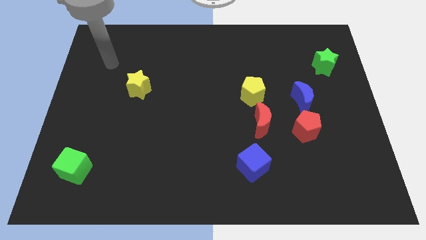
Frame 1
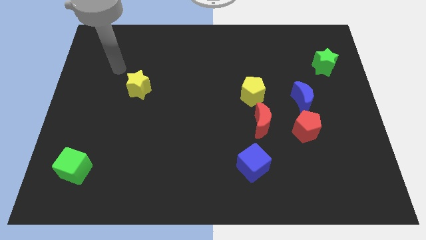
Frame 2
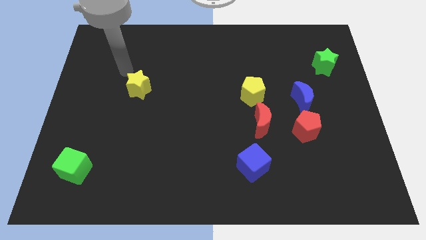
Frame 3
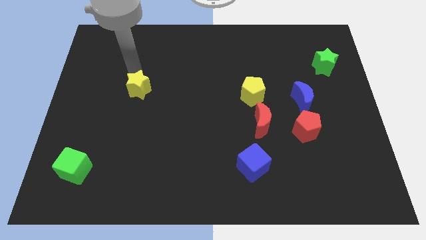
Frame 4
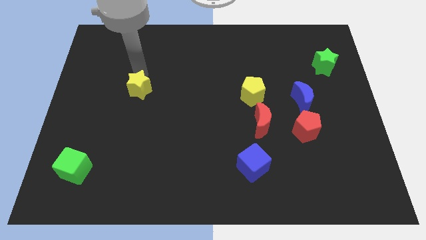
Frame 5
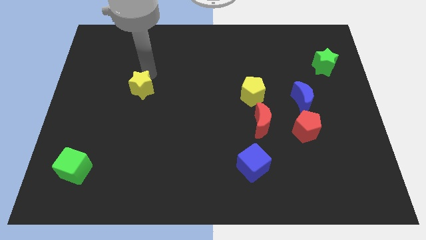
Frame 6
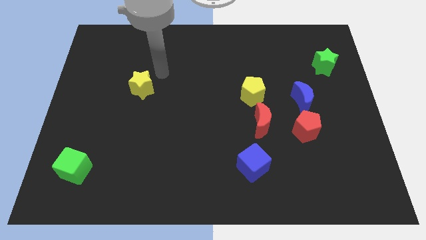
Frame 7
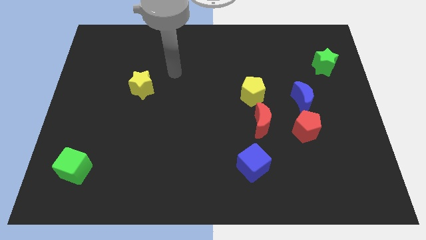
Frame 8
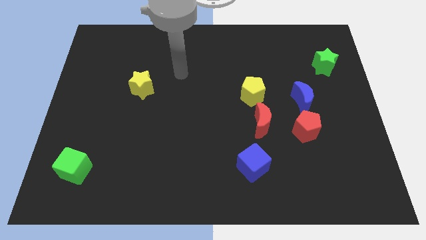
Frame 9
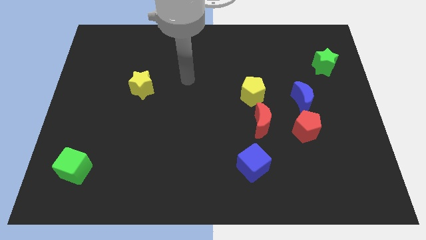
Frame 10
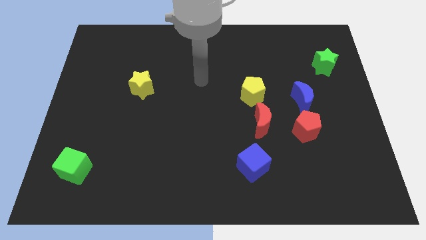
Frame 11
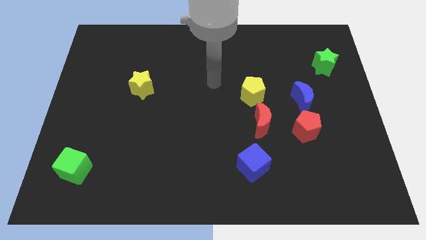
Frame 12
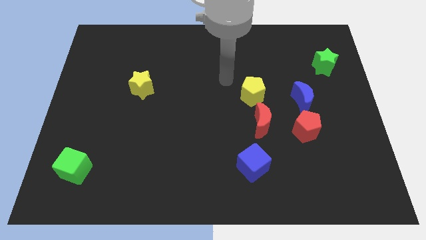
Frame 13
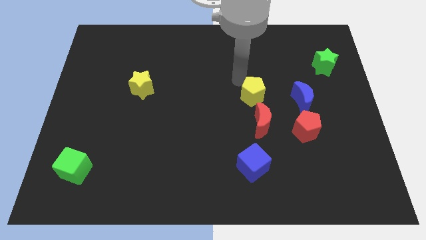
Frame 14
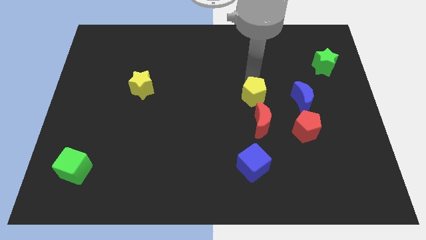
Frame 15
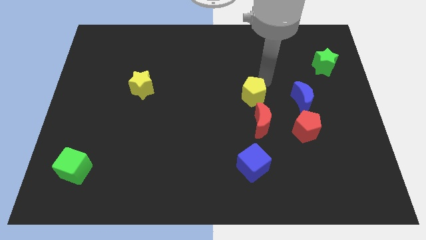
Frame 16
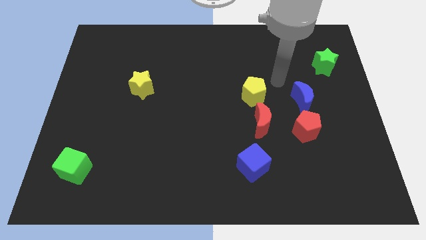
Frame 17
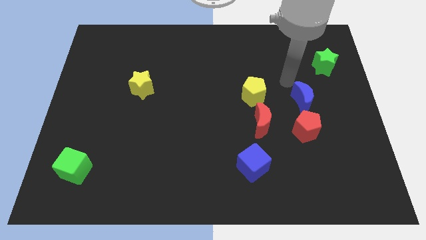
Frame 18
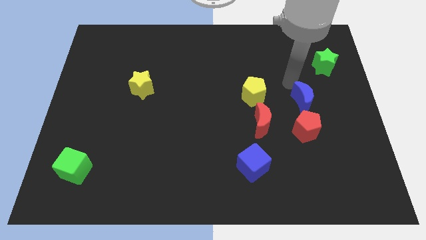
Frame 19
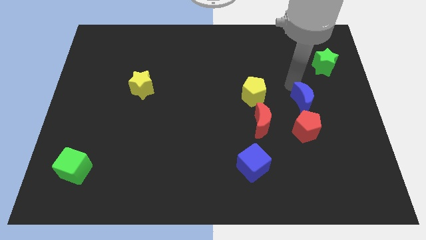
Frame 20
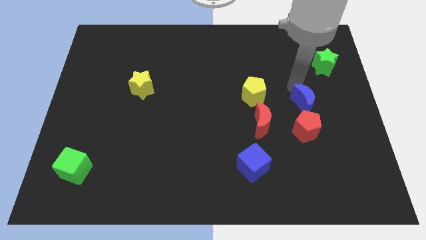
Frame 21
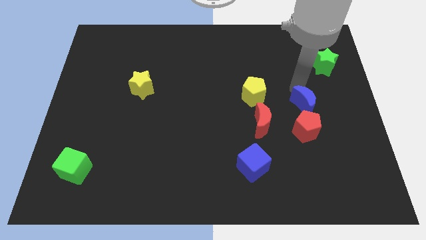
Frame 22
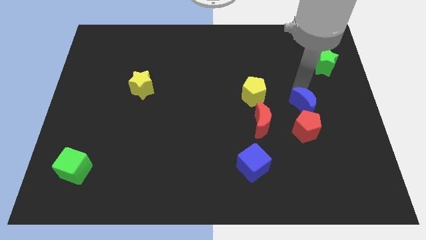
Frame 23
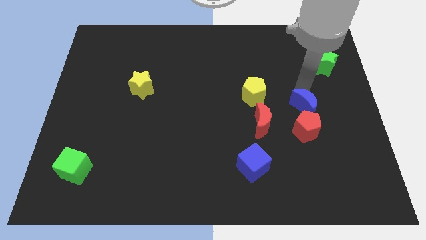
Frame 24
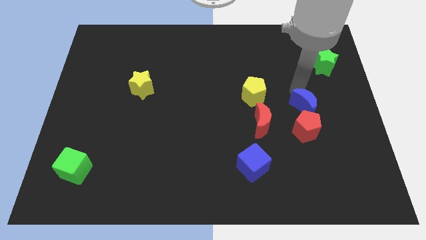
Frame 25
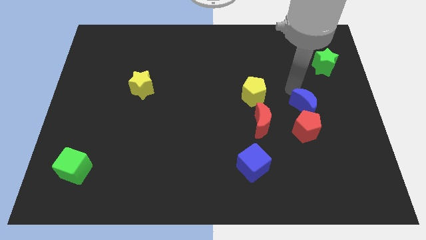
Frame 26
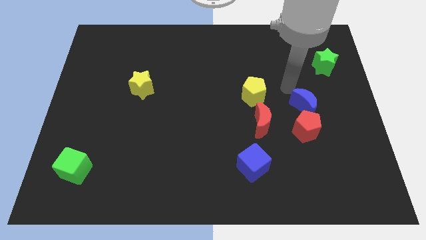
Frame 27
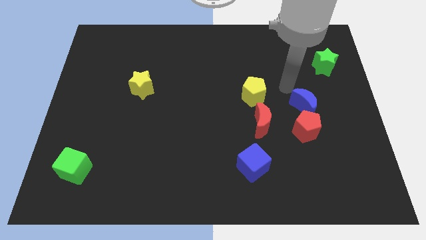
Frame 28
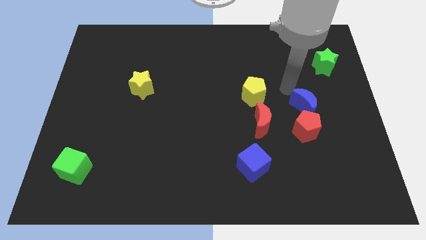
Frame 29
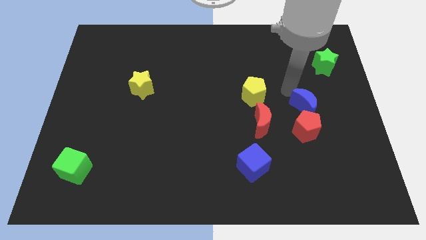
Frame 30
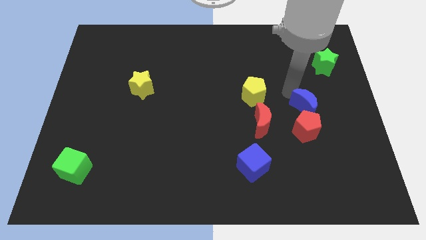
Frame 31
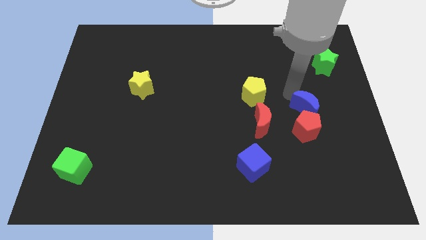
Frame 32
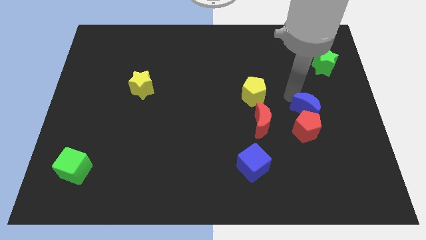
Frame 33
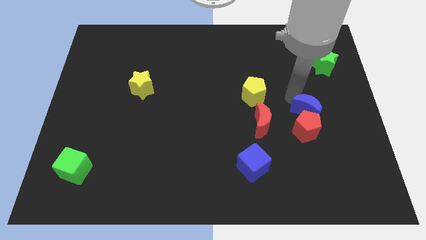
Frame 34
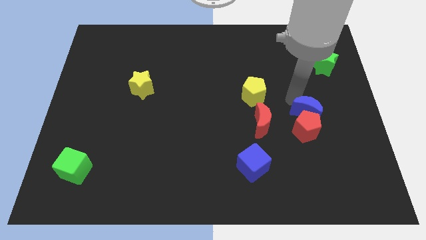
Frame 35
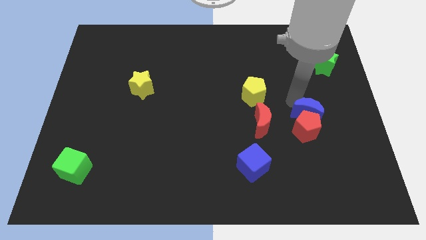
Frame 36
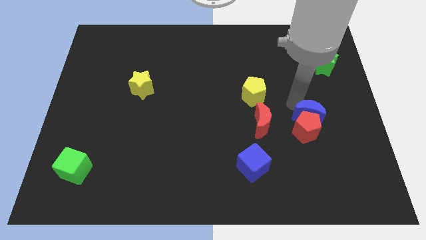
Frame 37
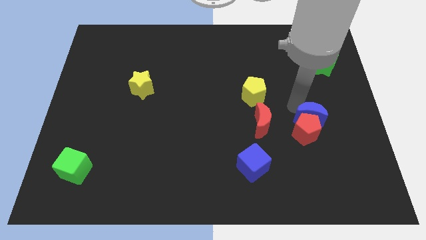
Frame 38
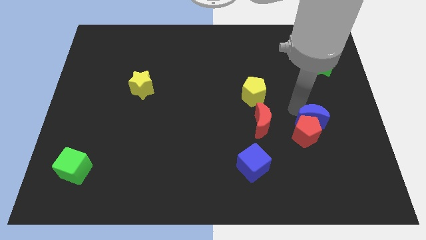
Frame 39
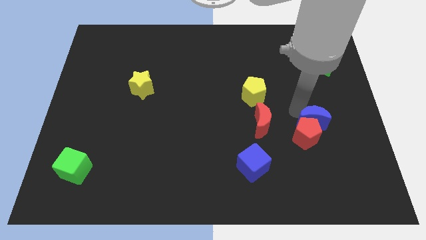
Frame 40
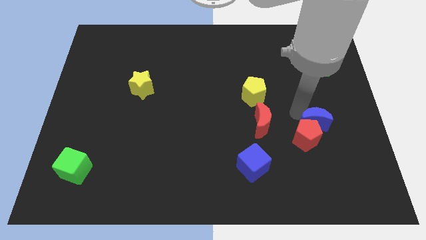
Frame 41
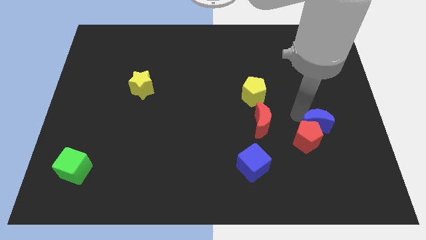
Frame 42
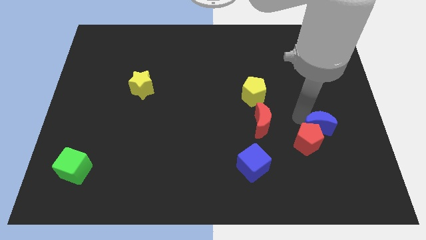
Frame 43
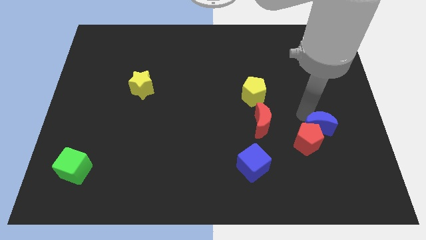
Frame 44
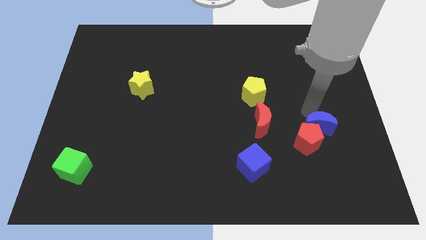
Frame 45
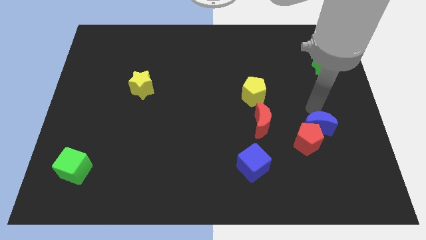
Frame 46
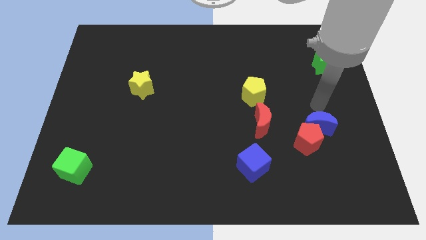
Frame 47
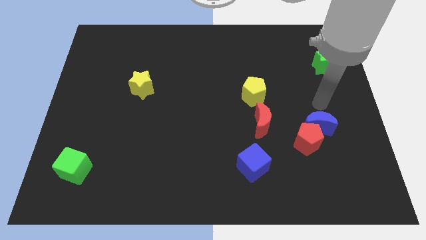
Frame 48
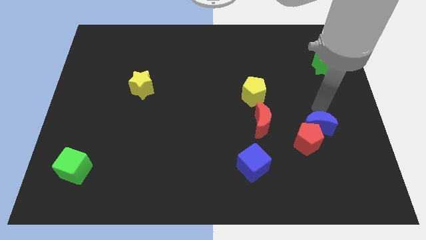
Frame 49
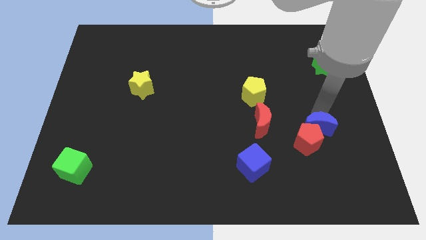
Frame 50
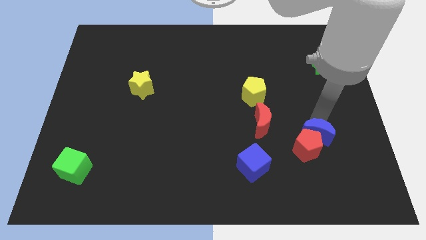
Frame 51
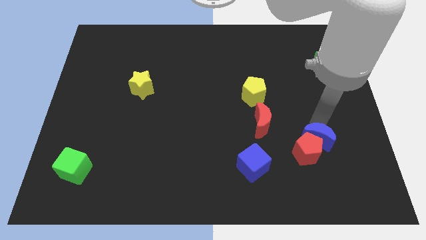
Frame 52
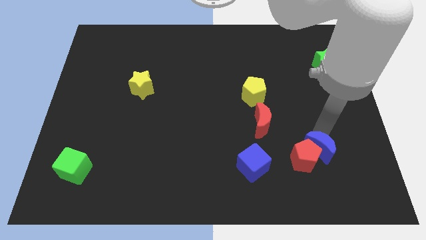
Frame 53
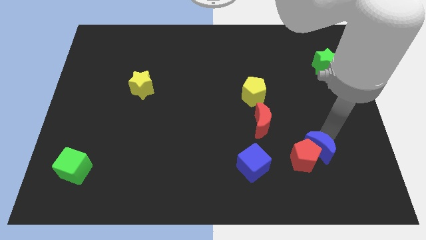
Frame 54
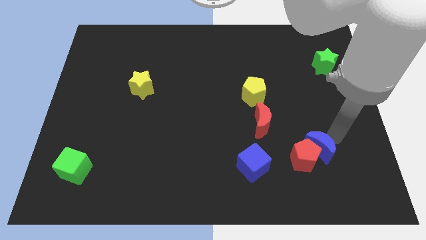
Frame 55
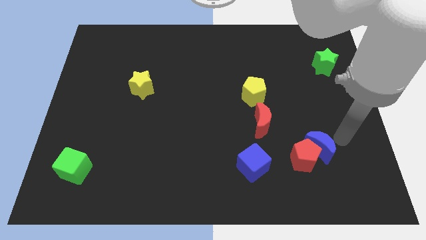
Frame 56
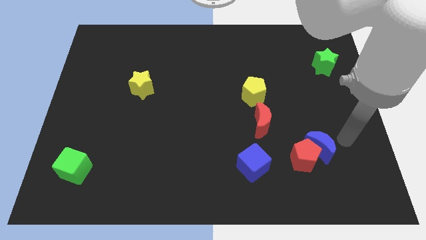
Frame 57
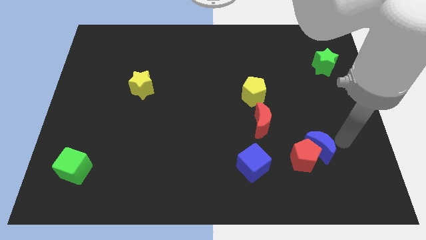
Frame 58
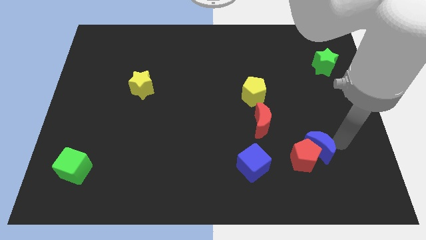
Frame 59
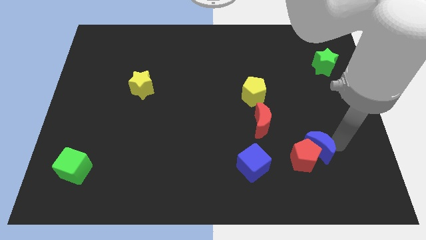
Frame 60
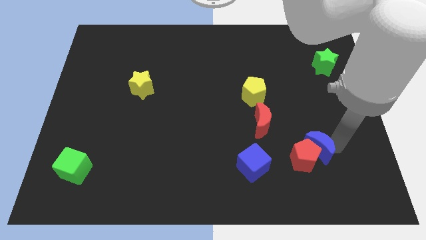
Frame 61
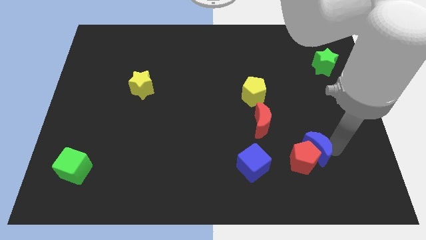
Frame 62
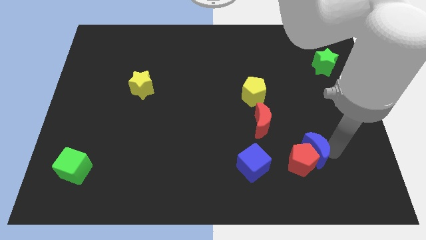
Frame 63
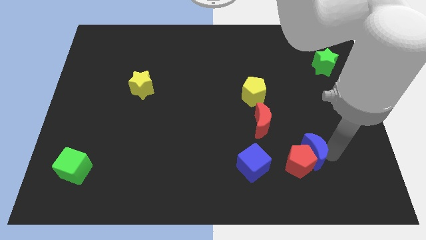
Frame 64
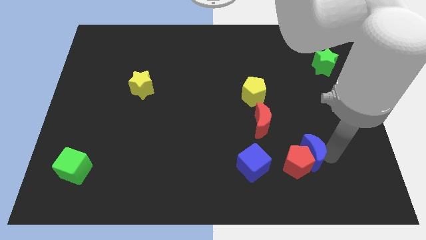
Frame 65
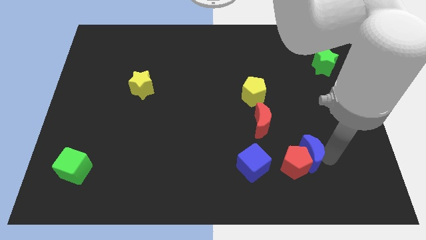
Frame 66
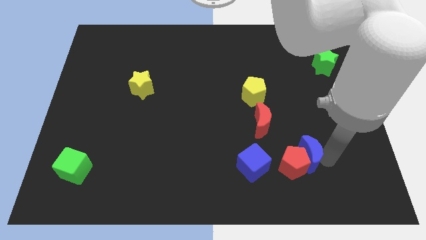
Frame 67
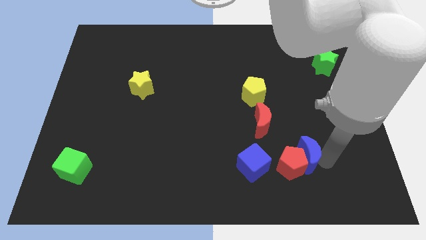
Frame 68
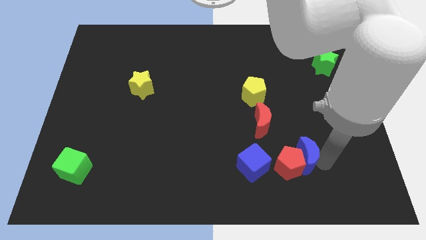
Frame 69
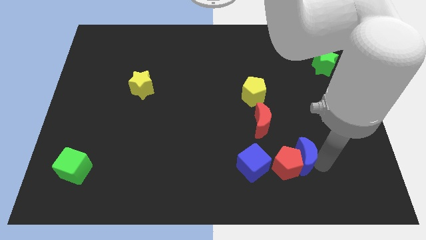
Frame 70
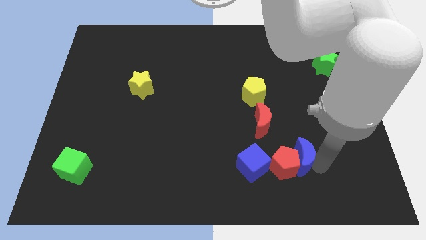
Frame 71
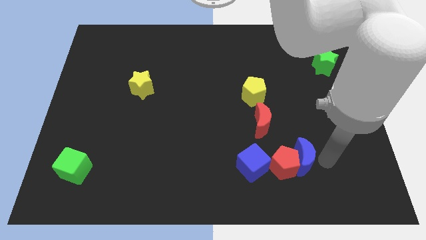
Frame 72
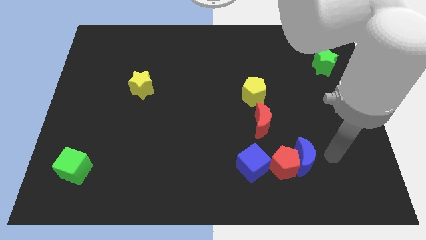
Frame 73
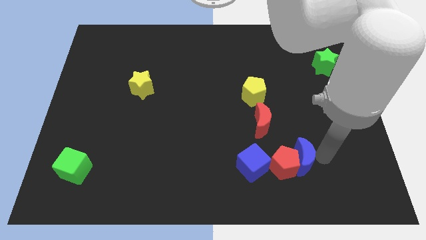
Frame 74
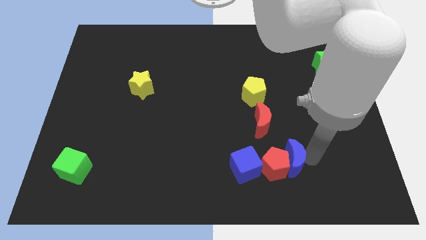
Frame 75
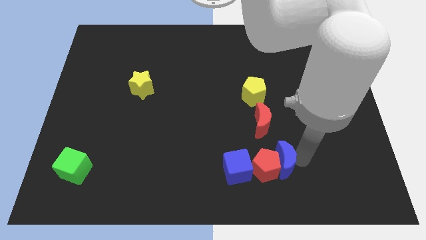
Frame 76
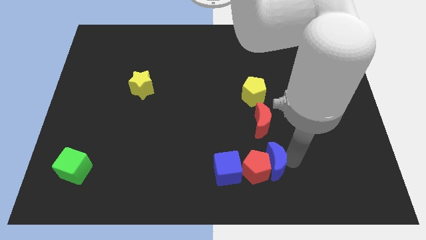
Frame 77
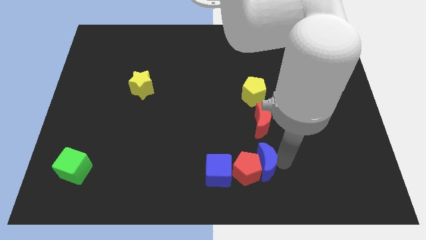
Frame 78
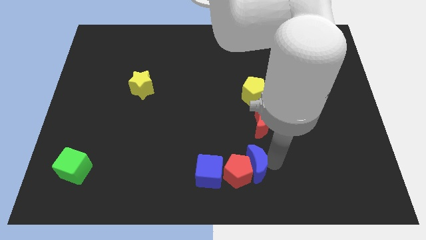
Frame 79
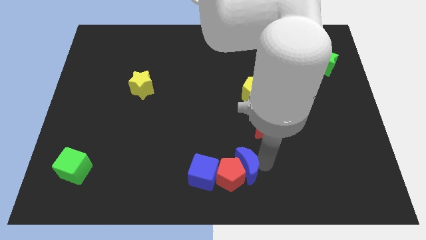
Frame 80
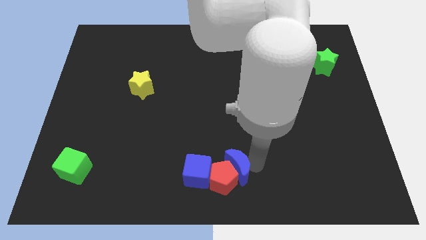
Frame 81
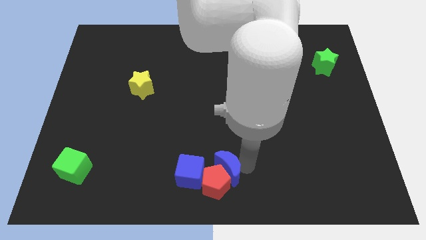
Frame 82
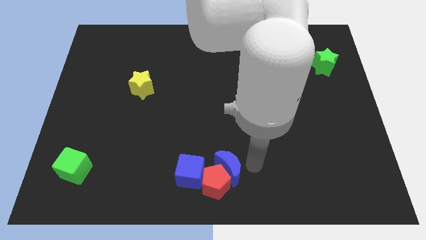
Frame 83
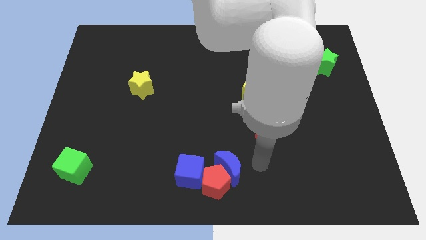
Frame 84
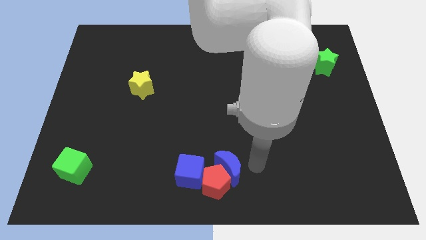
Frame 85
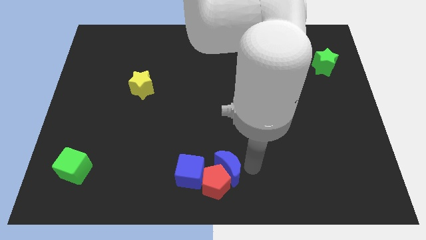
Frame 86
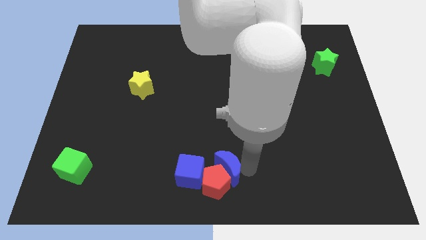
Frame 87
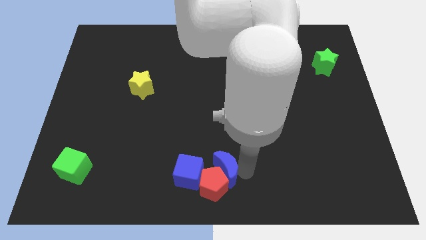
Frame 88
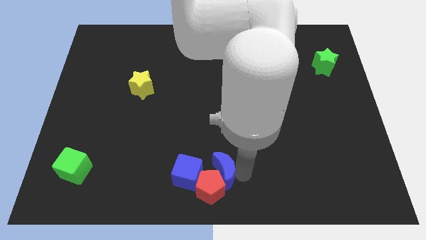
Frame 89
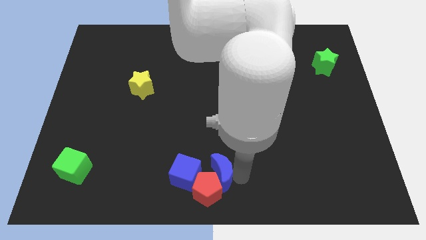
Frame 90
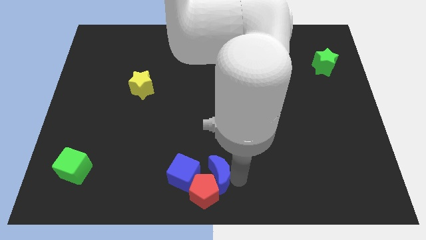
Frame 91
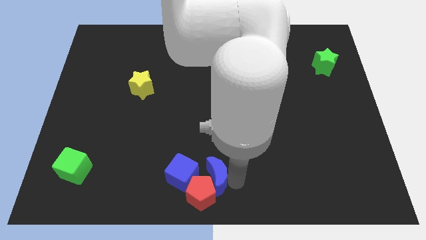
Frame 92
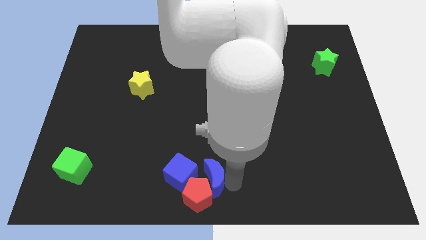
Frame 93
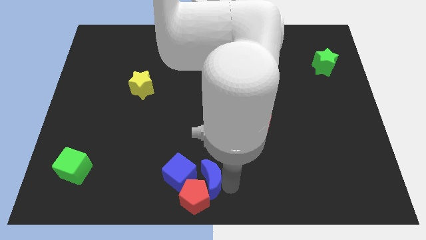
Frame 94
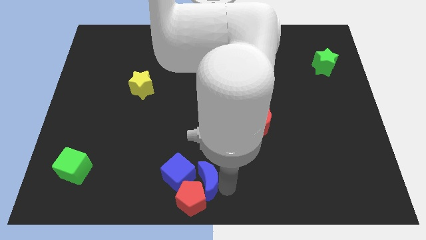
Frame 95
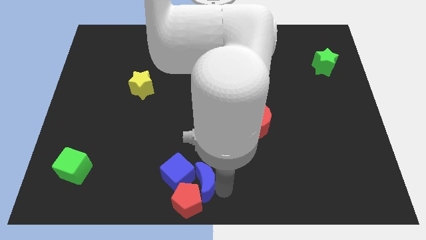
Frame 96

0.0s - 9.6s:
slide the blue moon close to the blue cube
